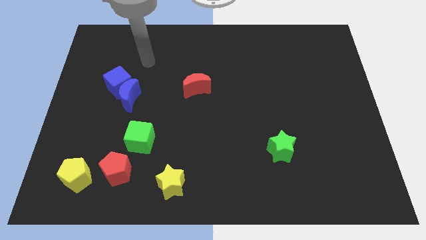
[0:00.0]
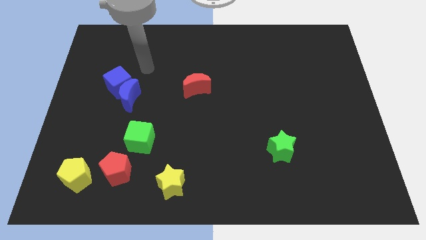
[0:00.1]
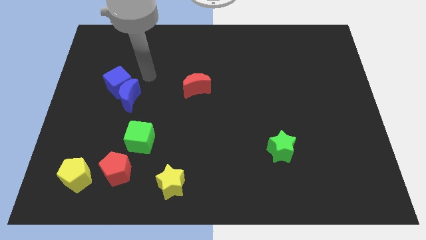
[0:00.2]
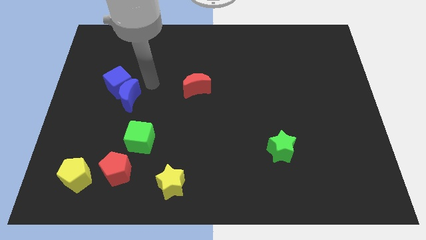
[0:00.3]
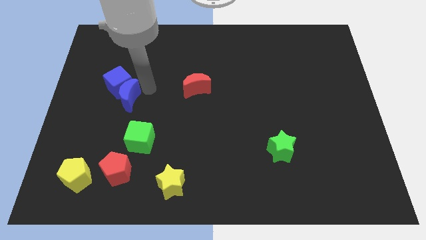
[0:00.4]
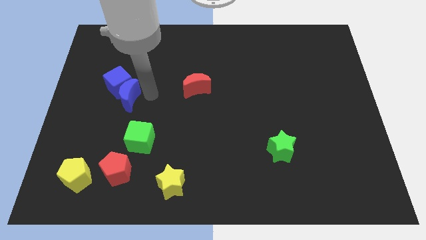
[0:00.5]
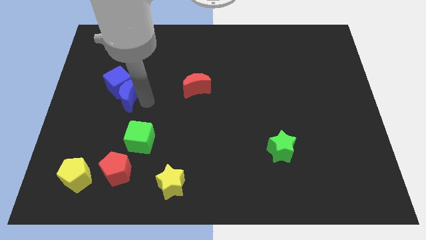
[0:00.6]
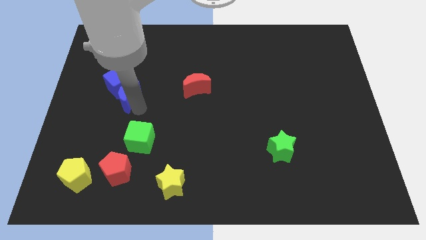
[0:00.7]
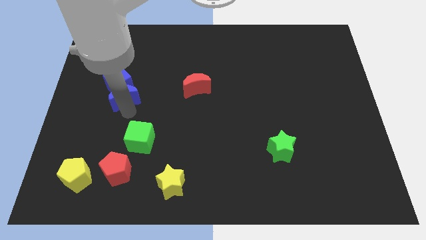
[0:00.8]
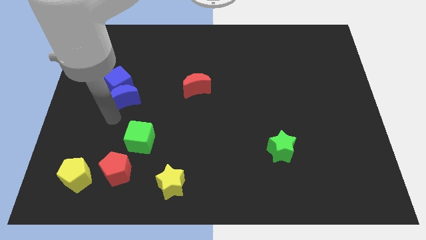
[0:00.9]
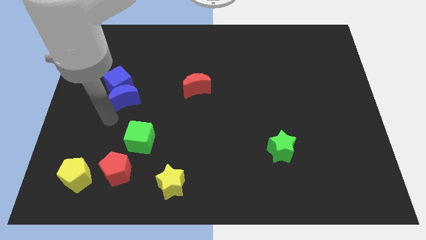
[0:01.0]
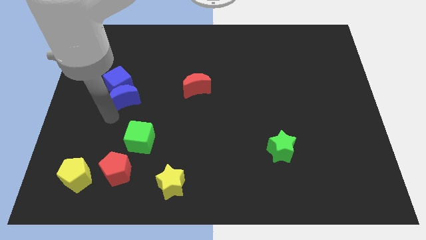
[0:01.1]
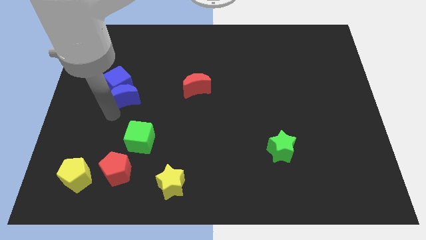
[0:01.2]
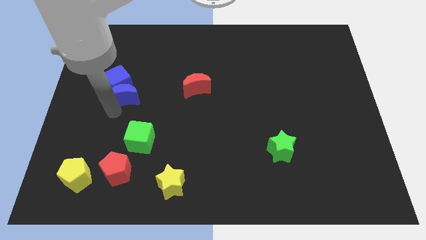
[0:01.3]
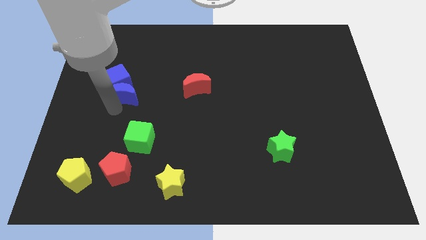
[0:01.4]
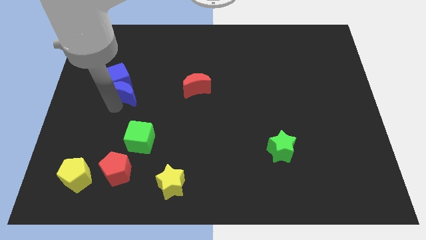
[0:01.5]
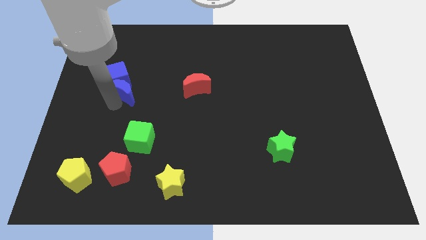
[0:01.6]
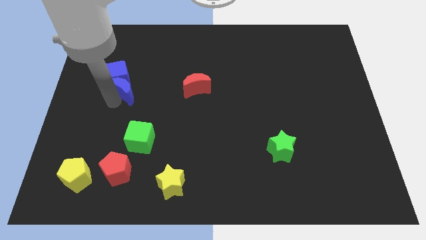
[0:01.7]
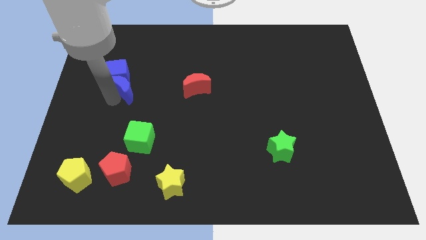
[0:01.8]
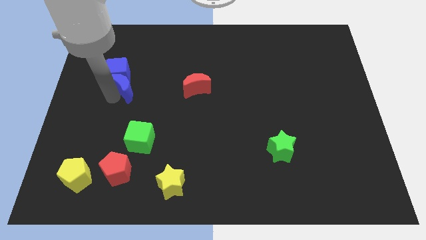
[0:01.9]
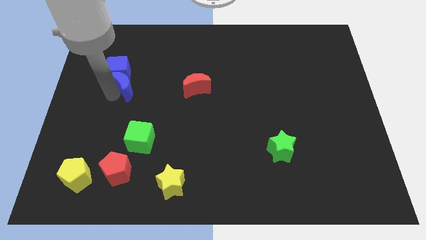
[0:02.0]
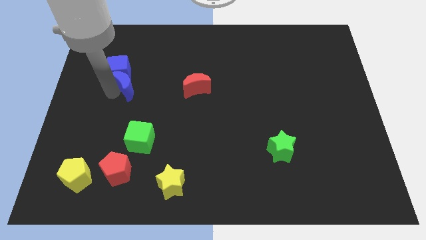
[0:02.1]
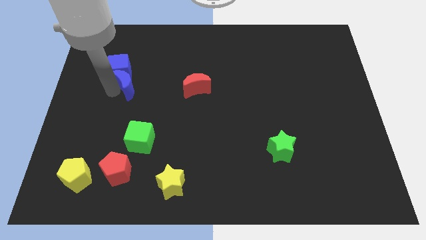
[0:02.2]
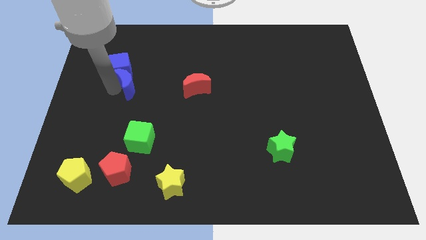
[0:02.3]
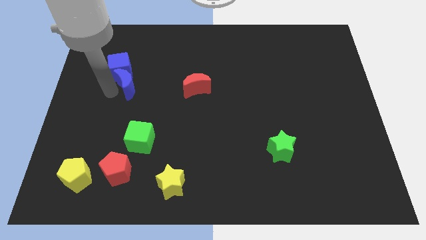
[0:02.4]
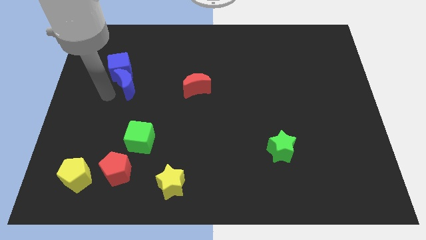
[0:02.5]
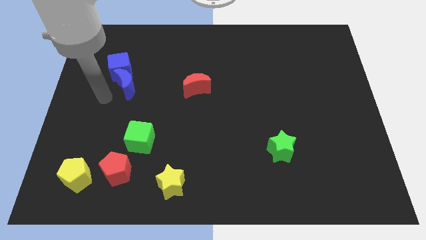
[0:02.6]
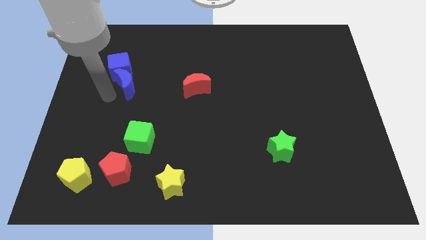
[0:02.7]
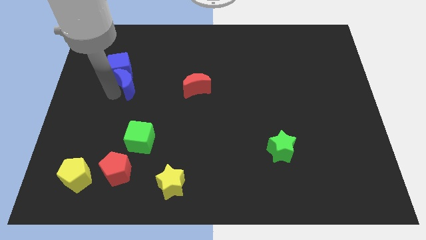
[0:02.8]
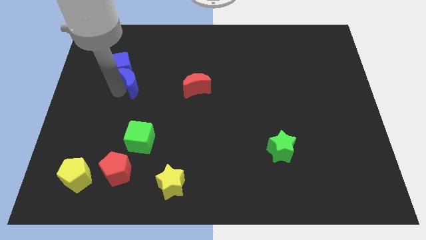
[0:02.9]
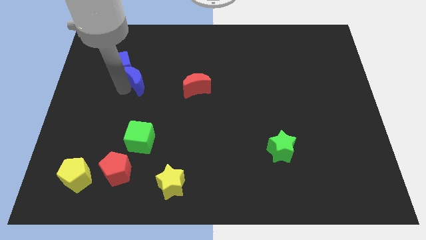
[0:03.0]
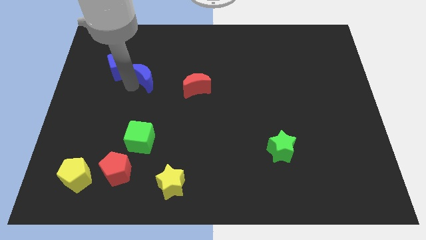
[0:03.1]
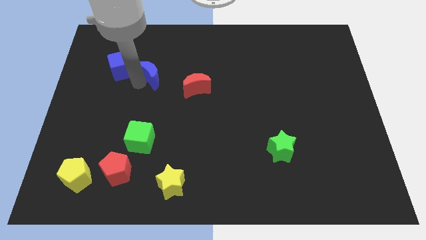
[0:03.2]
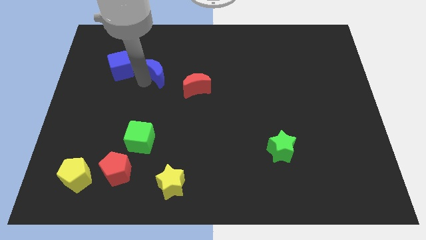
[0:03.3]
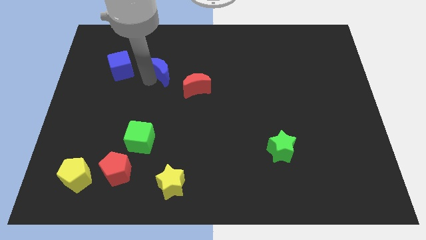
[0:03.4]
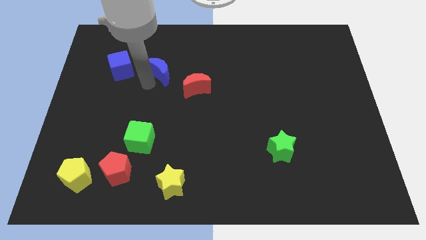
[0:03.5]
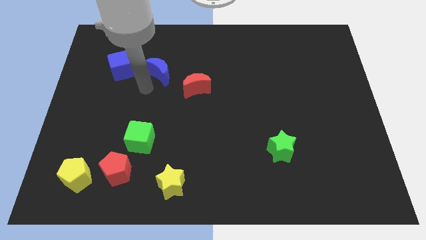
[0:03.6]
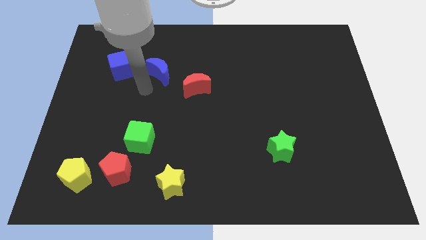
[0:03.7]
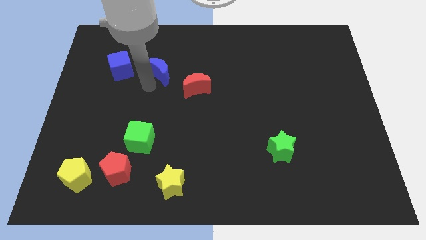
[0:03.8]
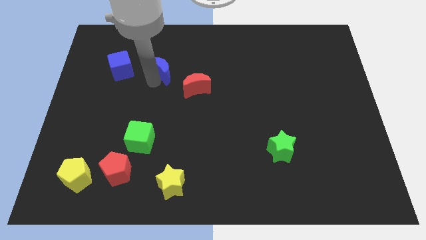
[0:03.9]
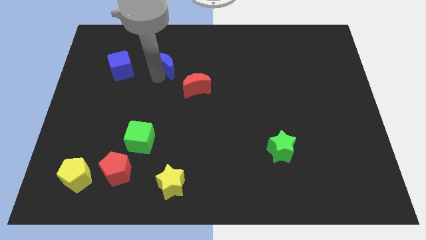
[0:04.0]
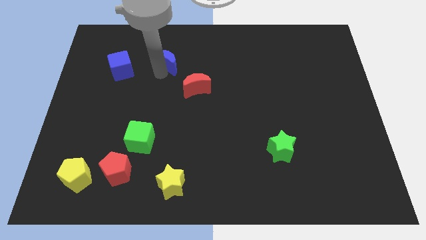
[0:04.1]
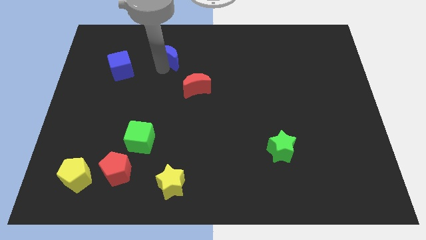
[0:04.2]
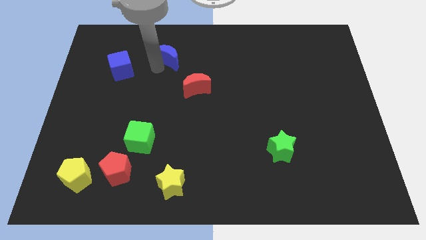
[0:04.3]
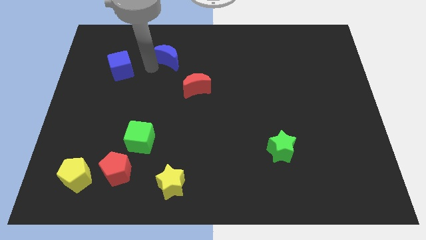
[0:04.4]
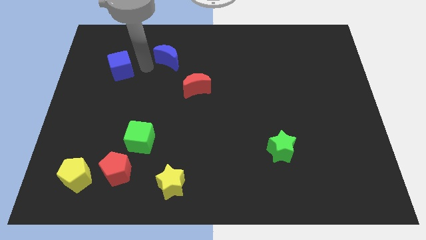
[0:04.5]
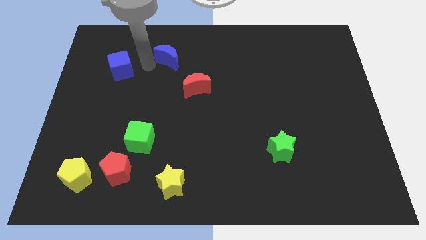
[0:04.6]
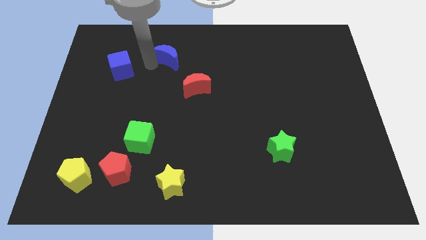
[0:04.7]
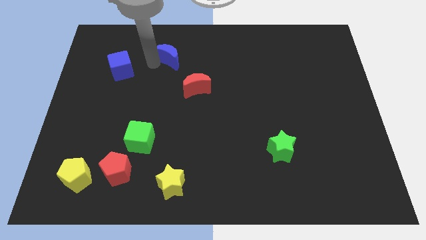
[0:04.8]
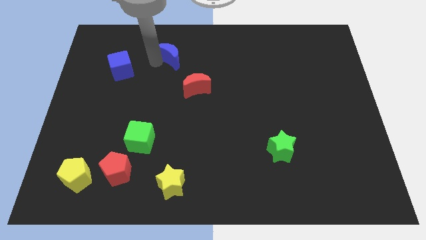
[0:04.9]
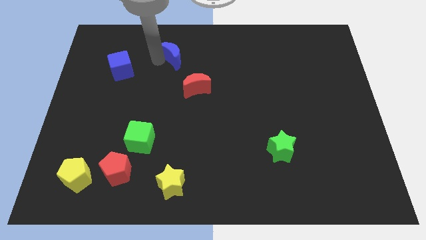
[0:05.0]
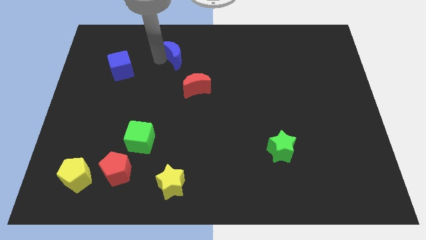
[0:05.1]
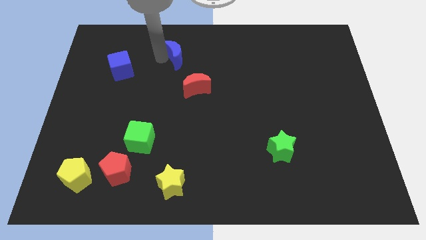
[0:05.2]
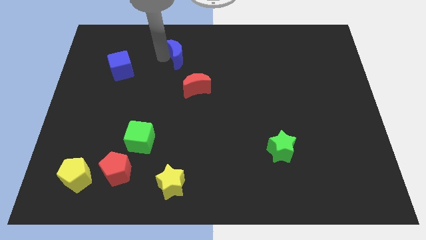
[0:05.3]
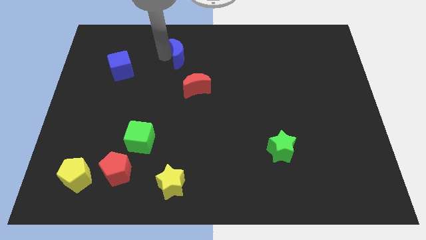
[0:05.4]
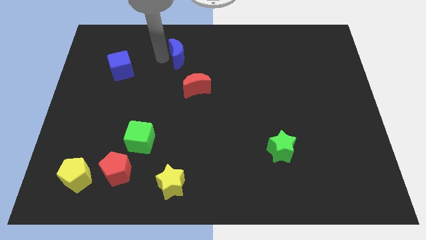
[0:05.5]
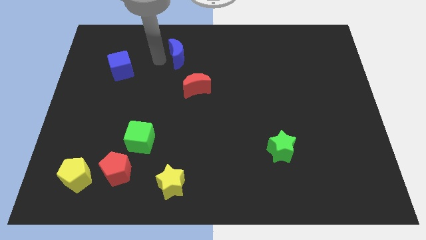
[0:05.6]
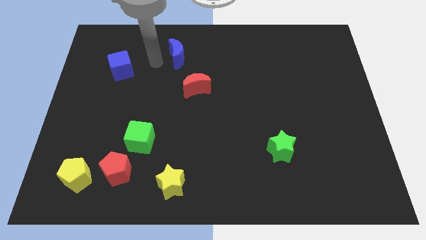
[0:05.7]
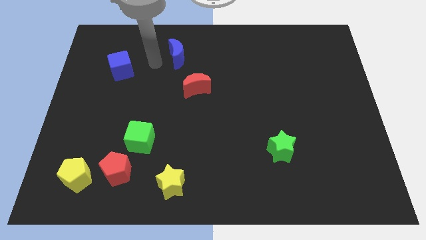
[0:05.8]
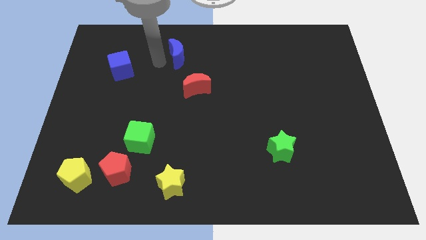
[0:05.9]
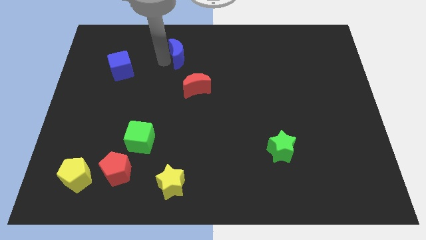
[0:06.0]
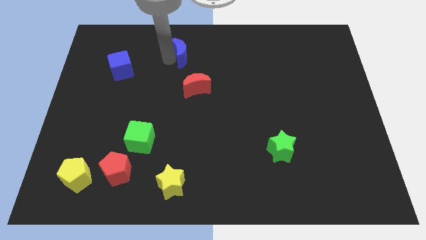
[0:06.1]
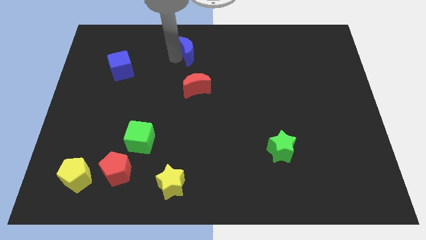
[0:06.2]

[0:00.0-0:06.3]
push the blue moon to the top side

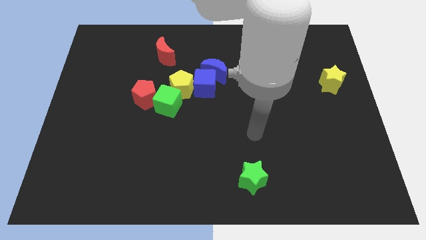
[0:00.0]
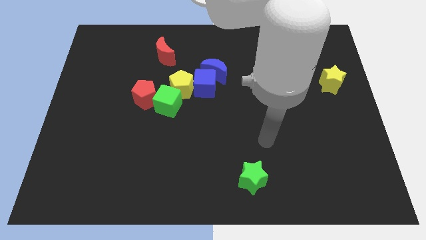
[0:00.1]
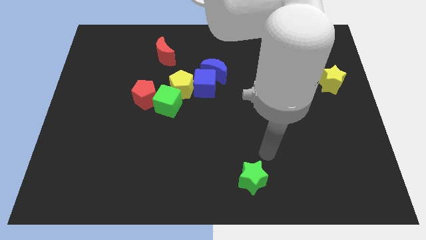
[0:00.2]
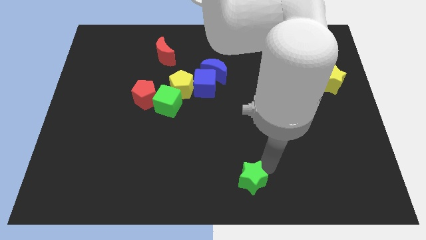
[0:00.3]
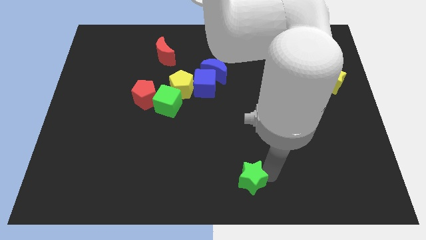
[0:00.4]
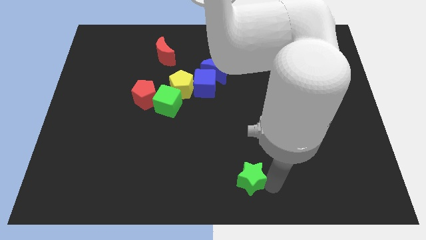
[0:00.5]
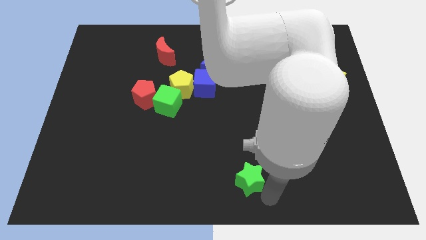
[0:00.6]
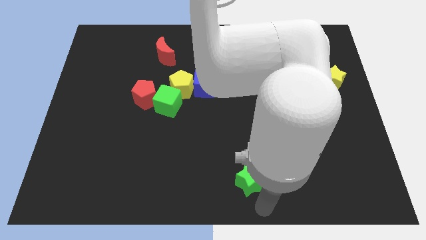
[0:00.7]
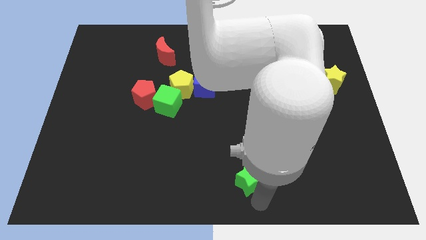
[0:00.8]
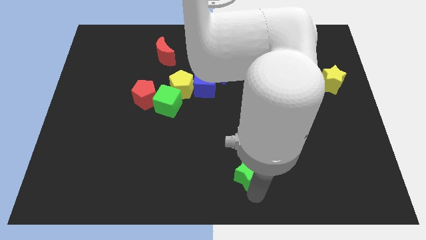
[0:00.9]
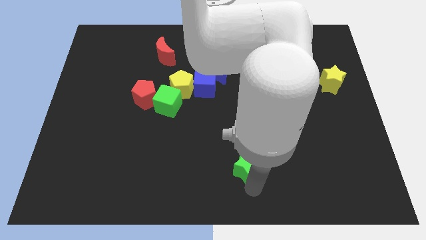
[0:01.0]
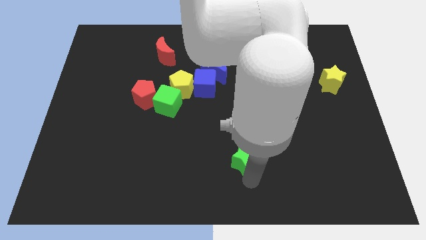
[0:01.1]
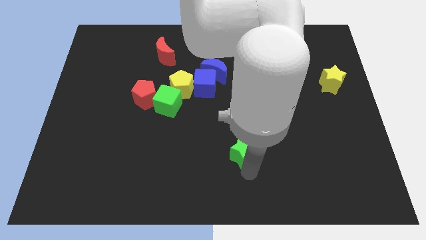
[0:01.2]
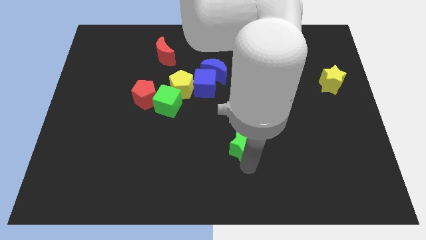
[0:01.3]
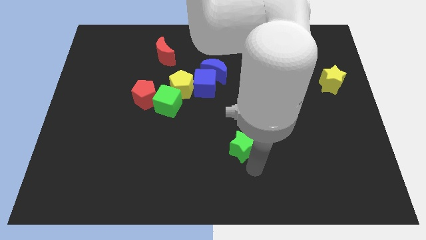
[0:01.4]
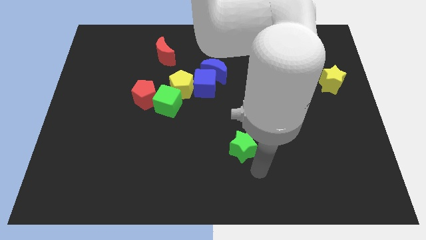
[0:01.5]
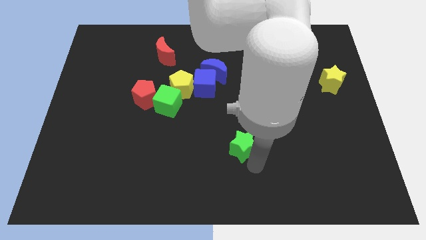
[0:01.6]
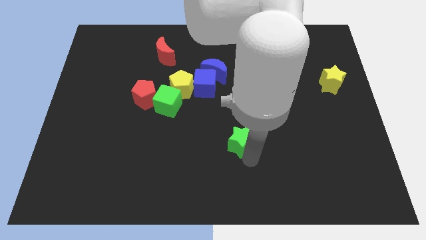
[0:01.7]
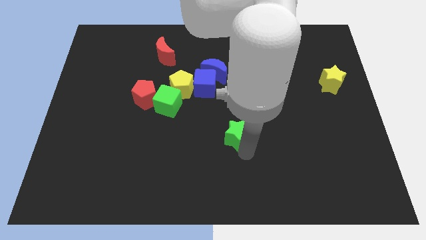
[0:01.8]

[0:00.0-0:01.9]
slide the green star to the center
